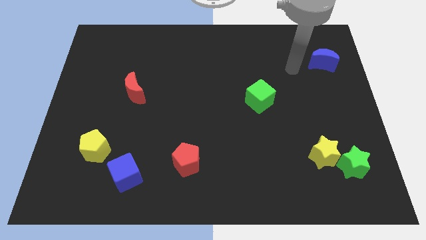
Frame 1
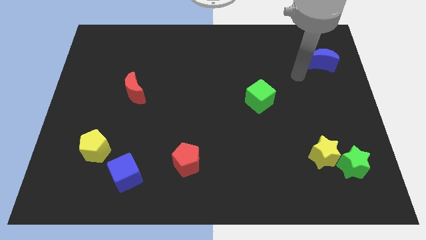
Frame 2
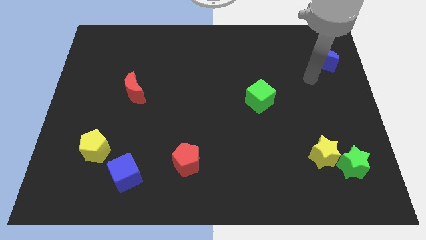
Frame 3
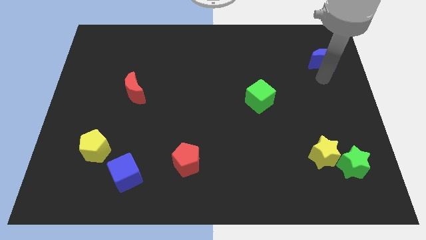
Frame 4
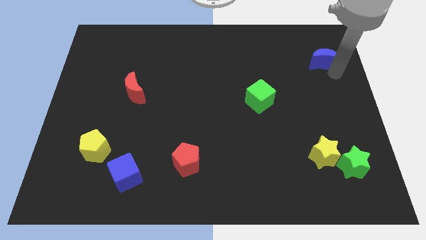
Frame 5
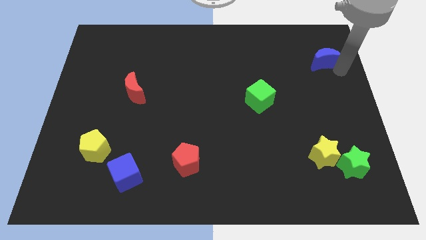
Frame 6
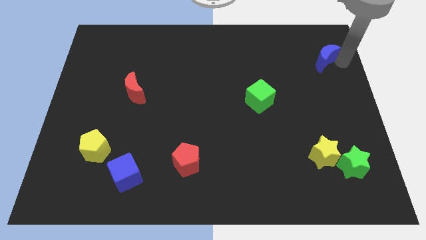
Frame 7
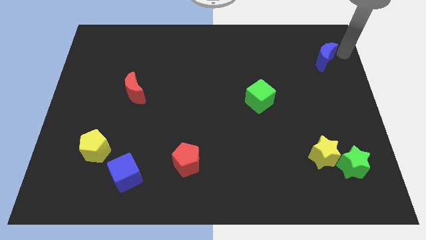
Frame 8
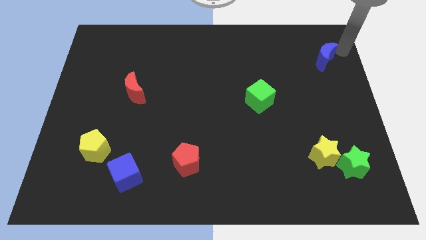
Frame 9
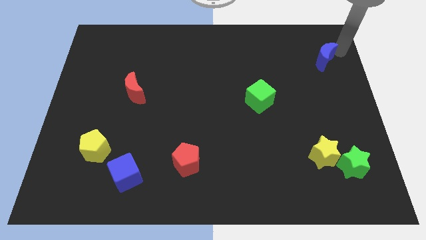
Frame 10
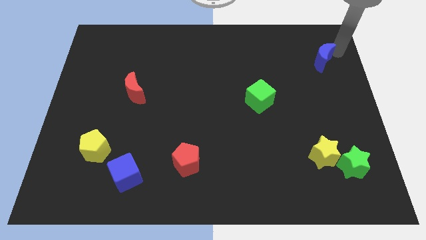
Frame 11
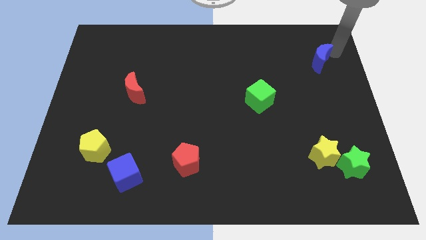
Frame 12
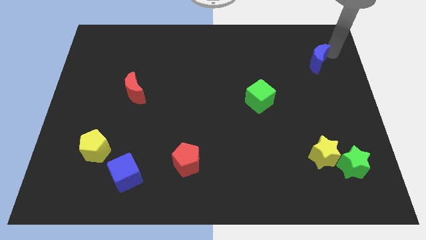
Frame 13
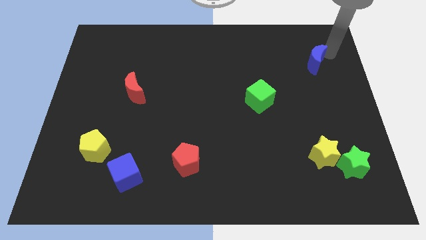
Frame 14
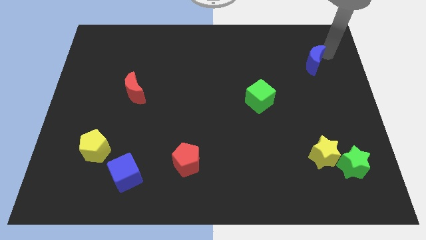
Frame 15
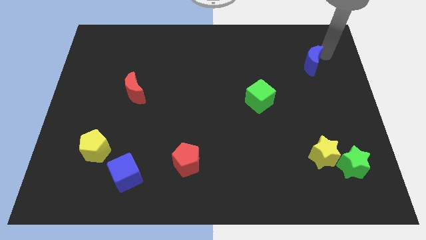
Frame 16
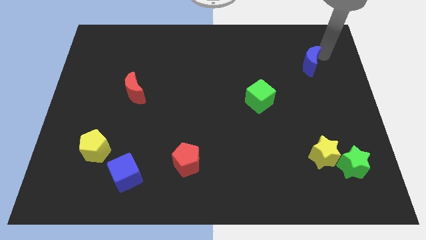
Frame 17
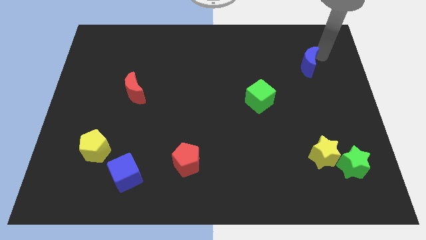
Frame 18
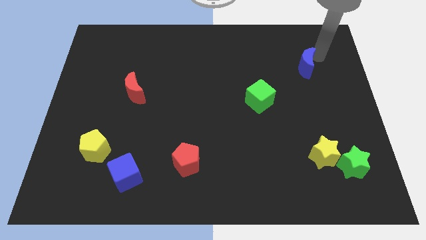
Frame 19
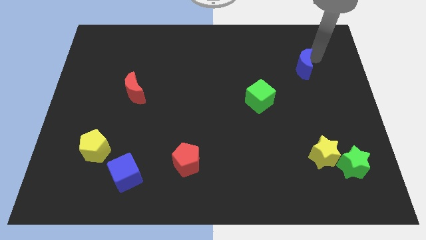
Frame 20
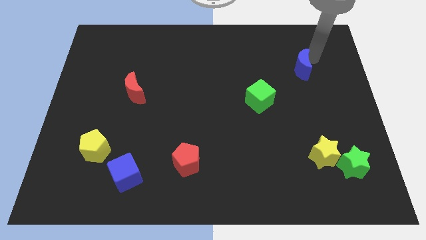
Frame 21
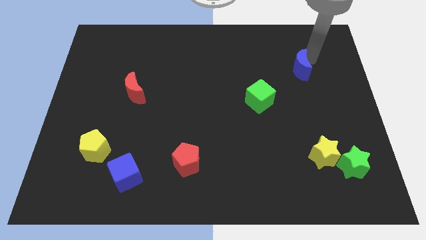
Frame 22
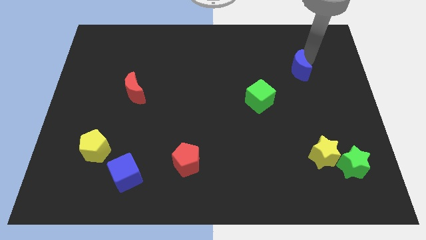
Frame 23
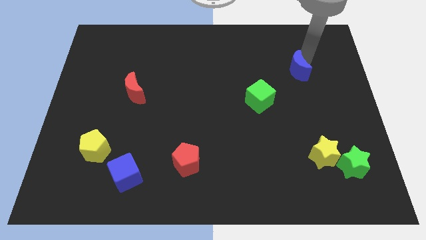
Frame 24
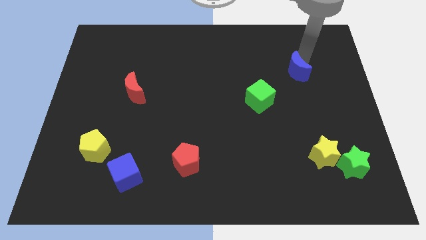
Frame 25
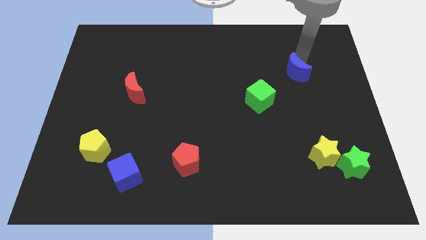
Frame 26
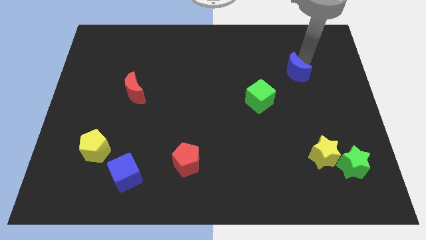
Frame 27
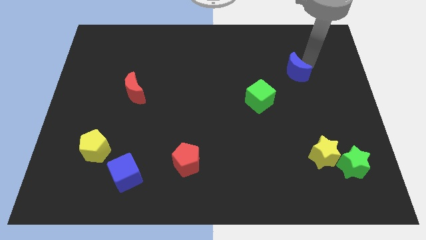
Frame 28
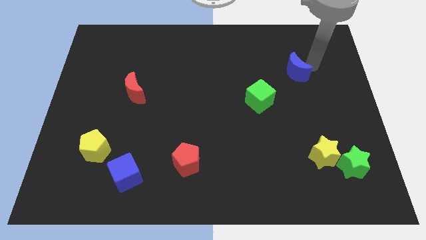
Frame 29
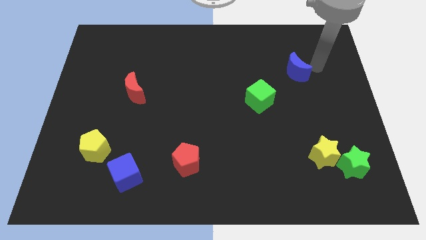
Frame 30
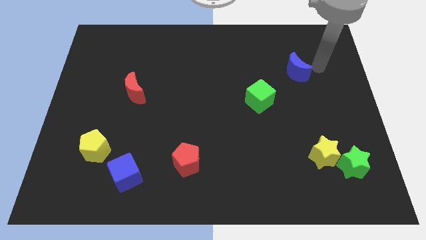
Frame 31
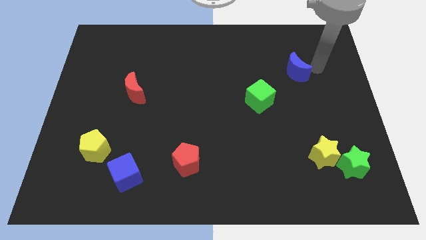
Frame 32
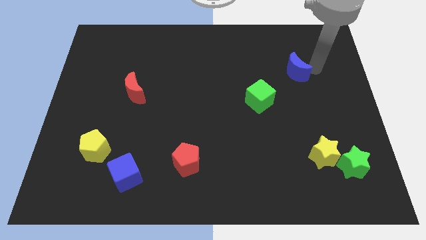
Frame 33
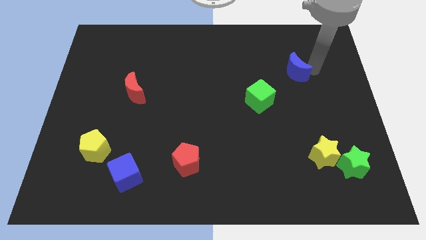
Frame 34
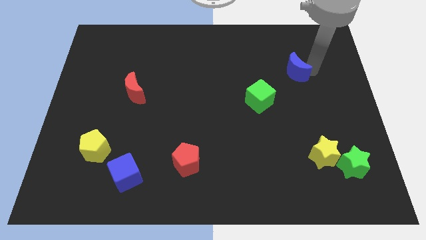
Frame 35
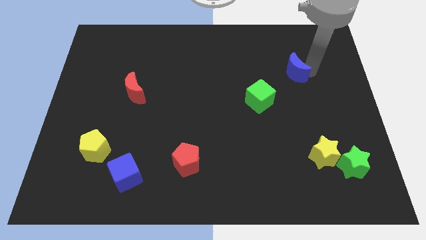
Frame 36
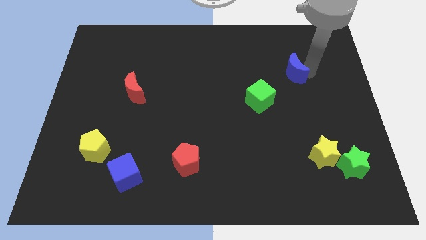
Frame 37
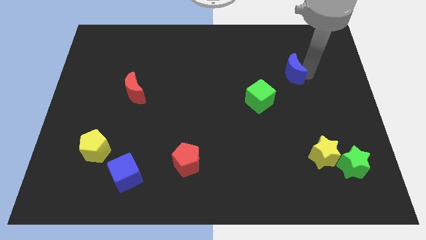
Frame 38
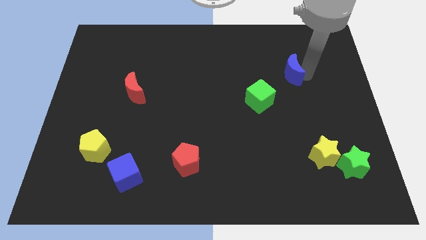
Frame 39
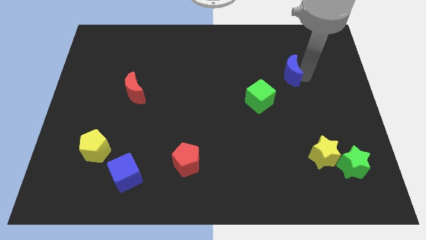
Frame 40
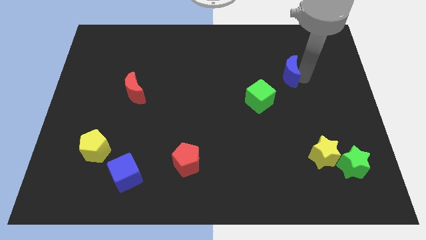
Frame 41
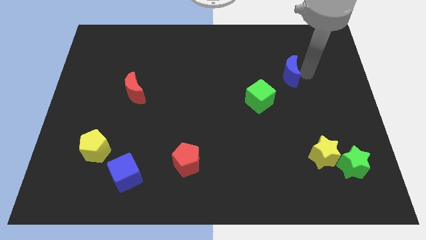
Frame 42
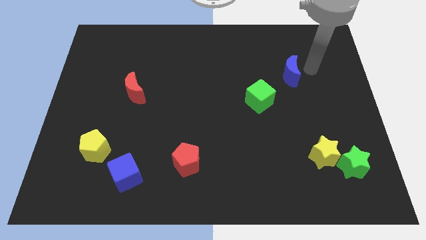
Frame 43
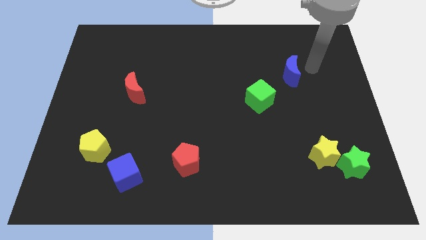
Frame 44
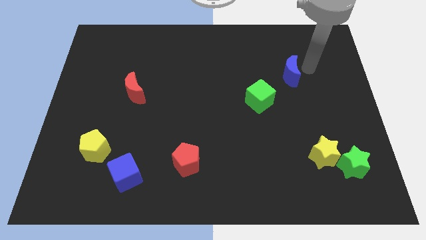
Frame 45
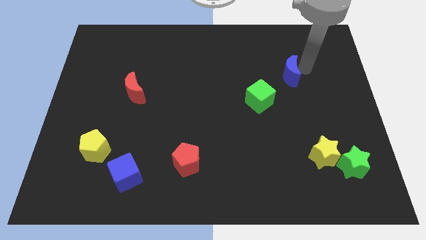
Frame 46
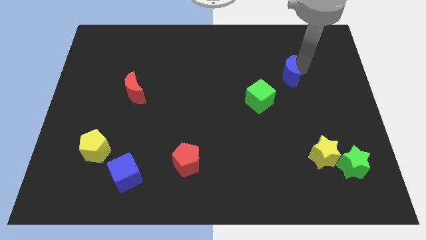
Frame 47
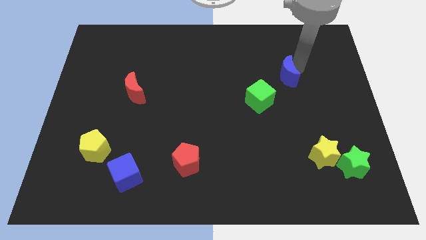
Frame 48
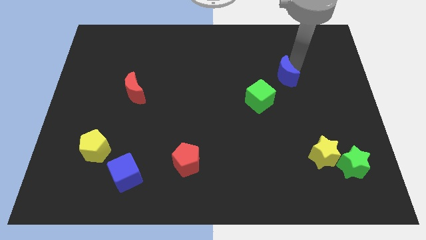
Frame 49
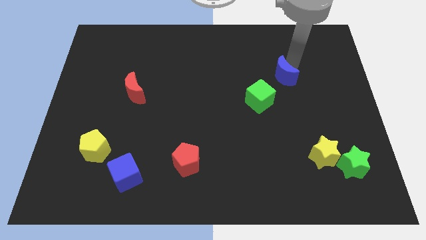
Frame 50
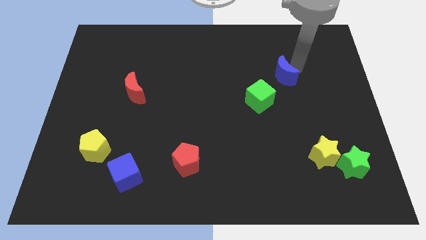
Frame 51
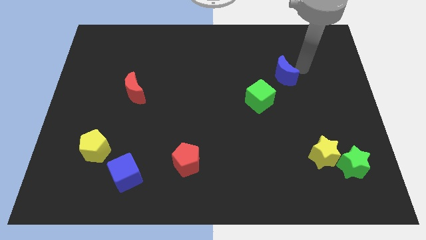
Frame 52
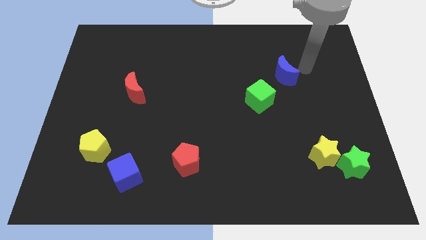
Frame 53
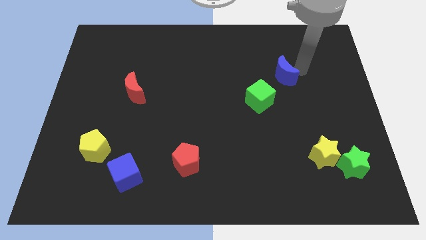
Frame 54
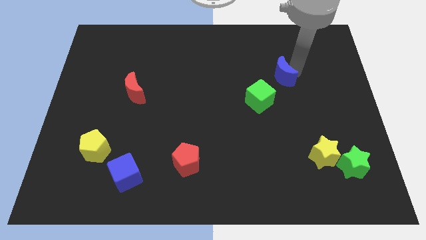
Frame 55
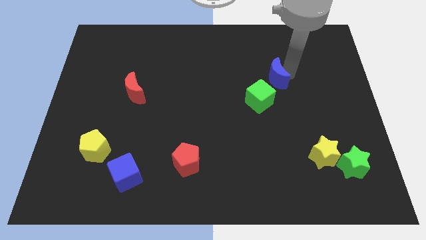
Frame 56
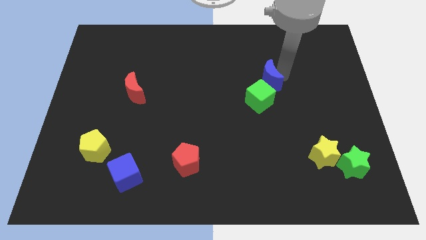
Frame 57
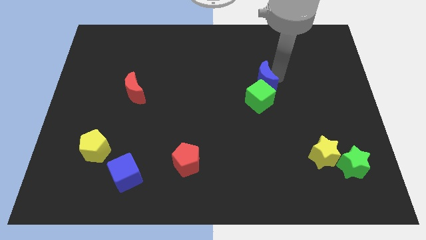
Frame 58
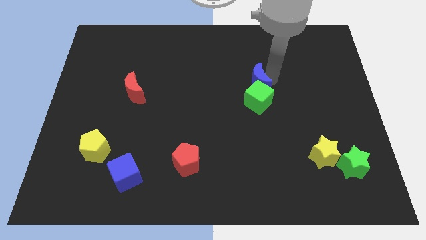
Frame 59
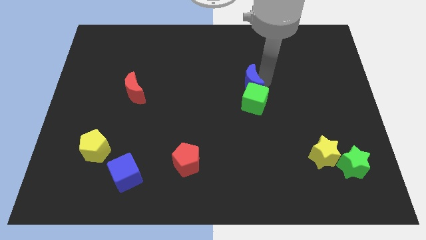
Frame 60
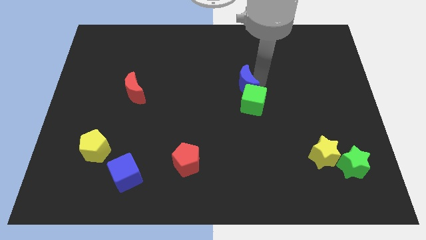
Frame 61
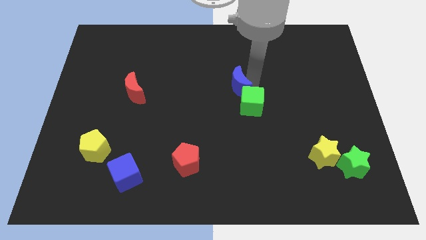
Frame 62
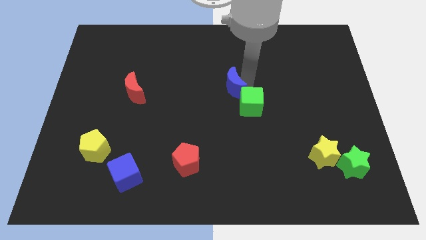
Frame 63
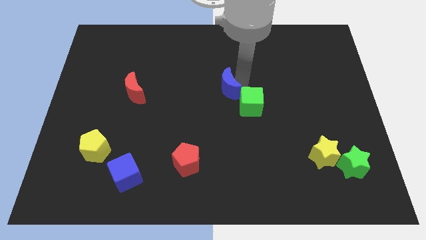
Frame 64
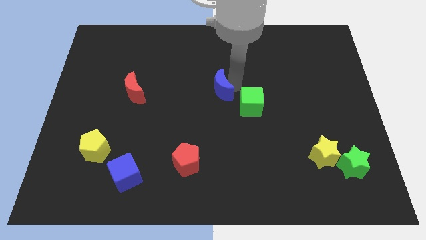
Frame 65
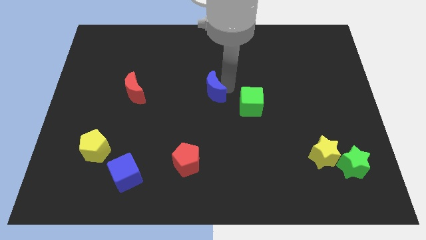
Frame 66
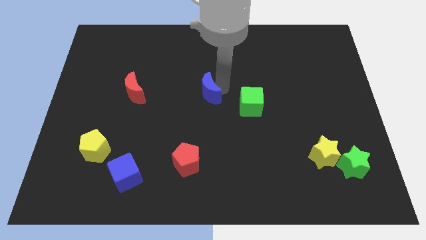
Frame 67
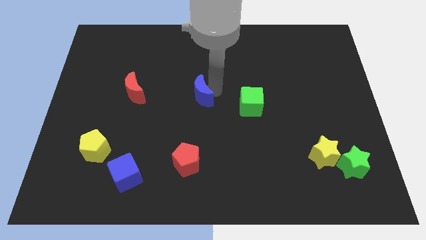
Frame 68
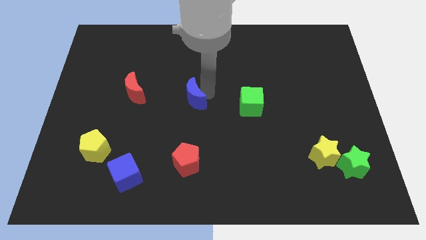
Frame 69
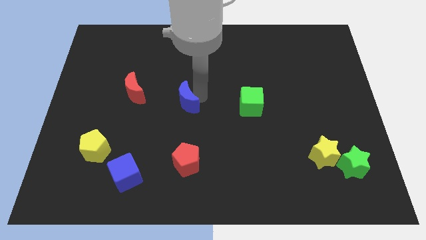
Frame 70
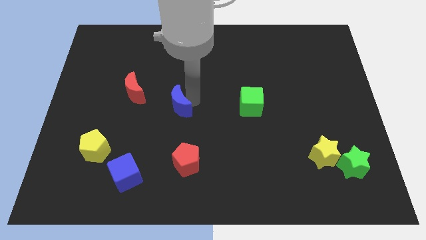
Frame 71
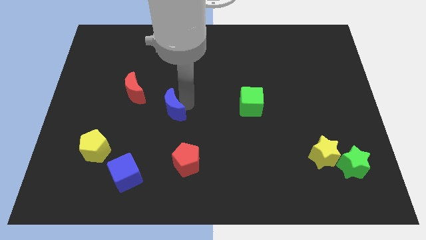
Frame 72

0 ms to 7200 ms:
put the blue moon to the bottom right of the red moon

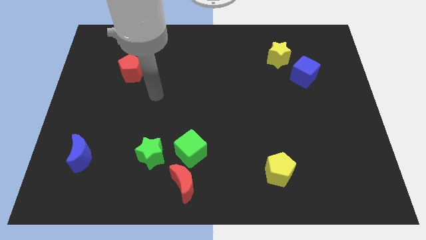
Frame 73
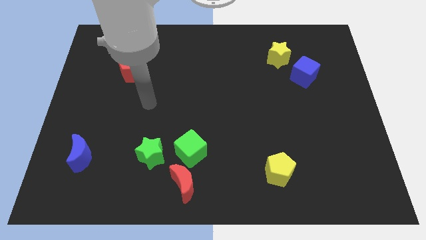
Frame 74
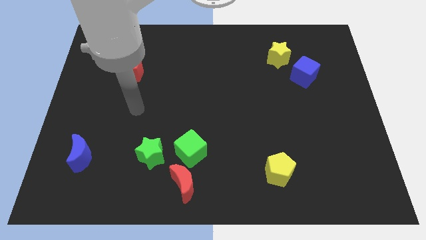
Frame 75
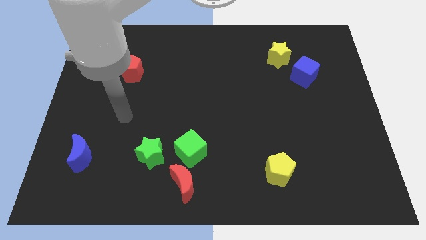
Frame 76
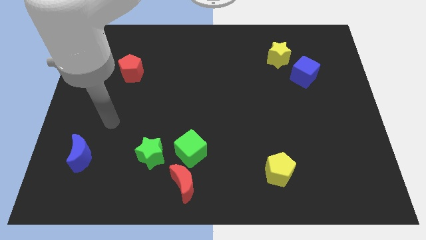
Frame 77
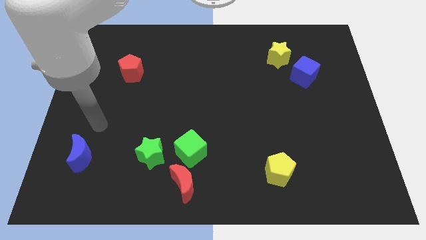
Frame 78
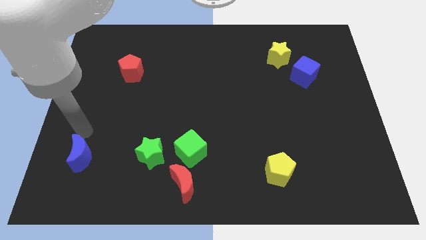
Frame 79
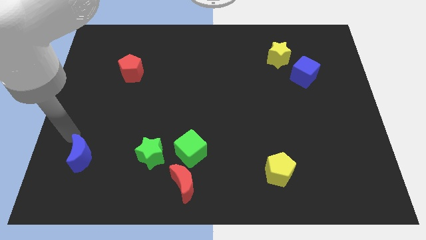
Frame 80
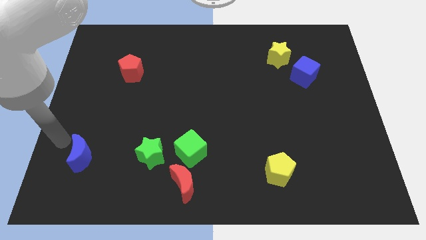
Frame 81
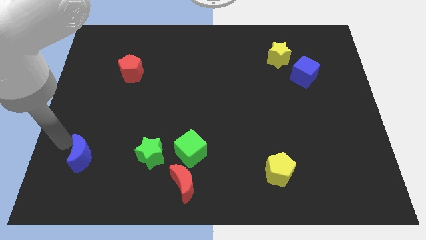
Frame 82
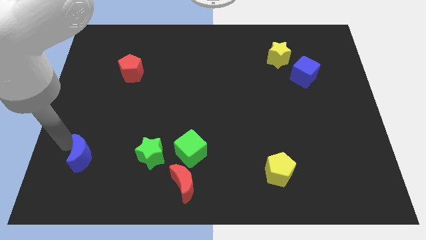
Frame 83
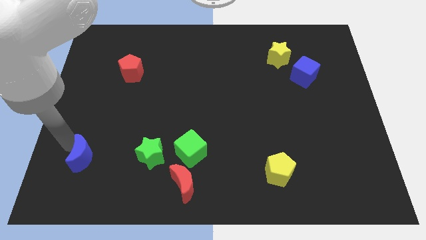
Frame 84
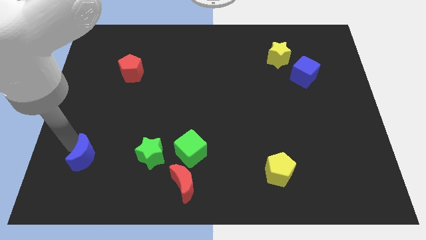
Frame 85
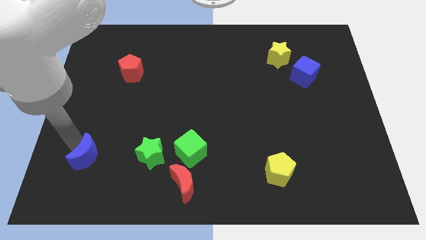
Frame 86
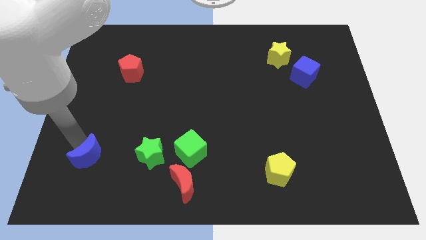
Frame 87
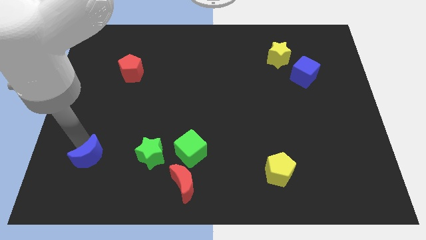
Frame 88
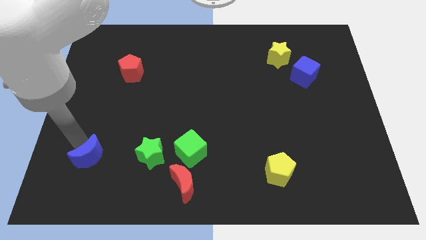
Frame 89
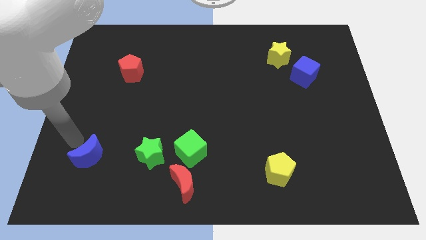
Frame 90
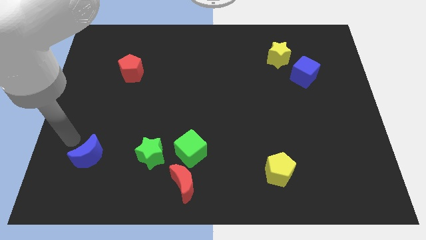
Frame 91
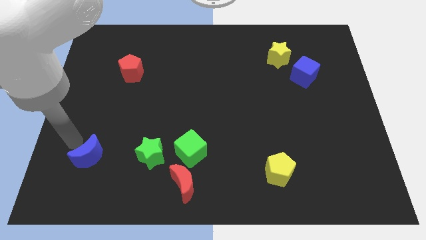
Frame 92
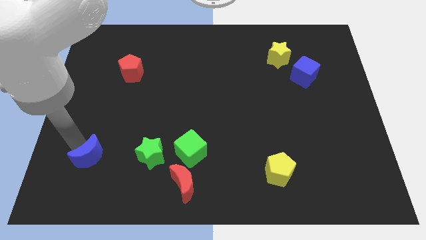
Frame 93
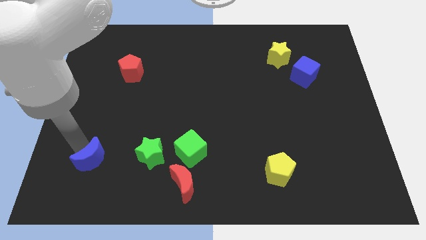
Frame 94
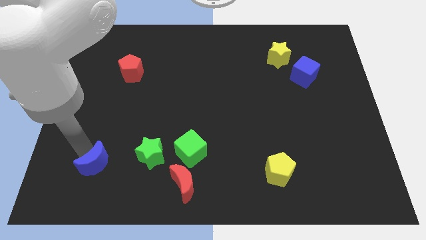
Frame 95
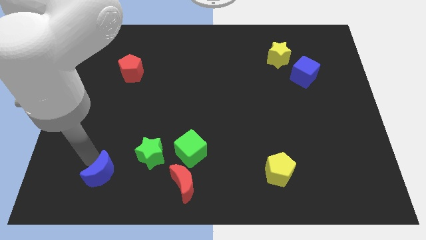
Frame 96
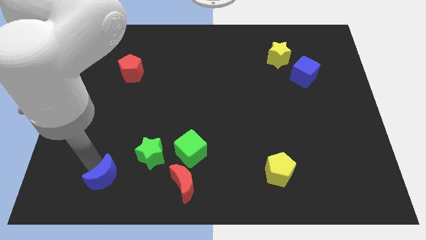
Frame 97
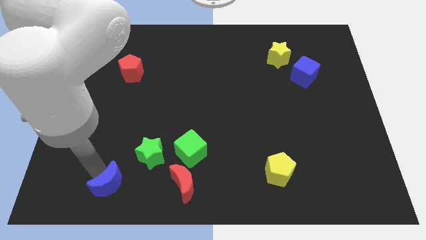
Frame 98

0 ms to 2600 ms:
slide the blue moon to the left side of the red moon
